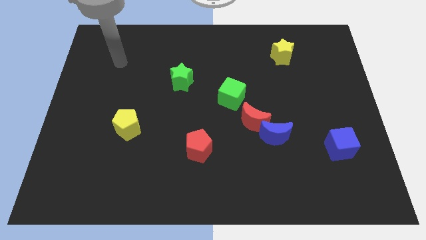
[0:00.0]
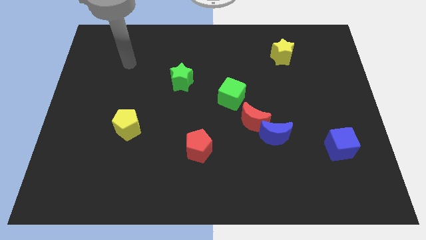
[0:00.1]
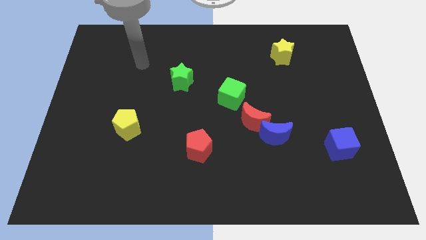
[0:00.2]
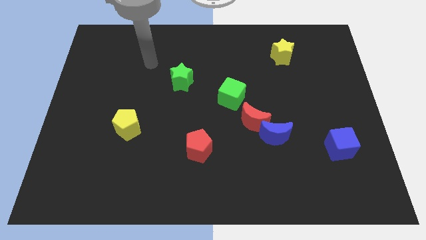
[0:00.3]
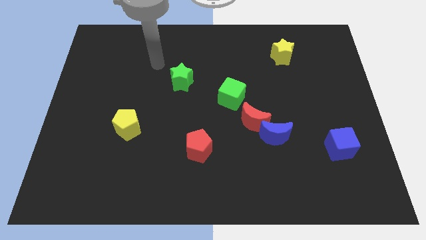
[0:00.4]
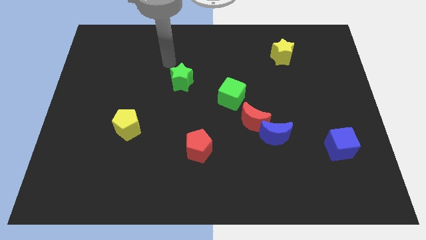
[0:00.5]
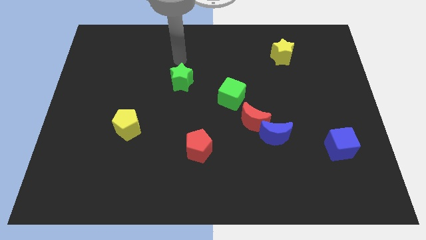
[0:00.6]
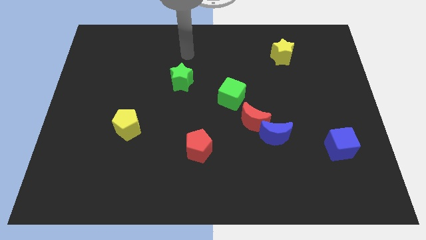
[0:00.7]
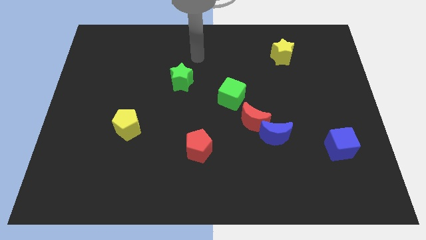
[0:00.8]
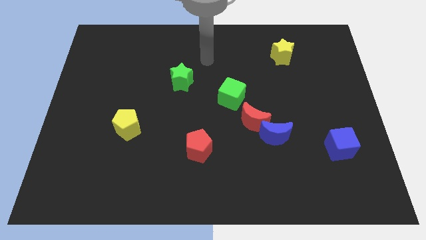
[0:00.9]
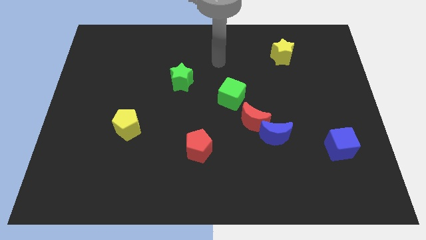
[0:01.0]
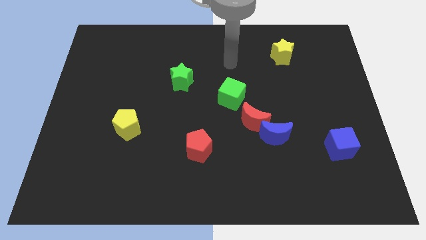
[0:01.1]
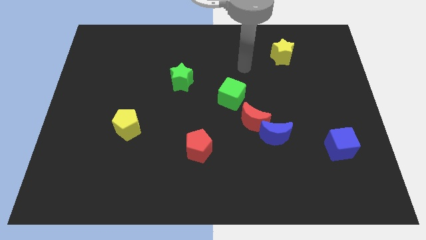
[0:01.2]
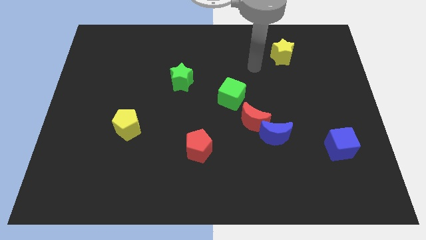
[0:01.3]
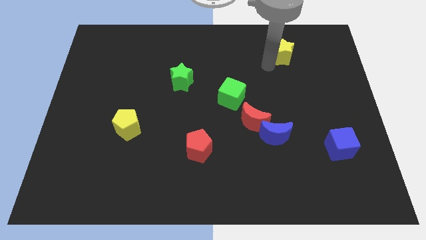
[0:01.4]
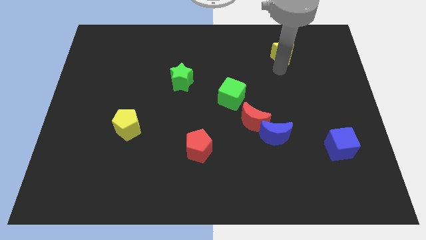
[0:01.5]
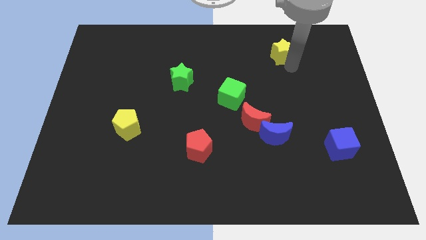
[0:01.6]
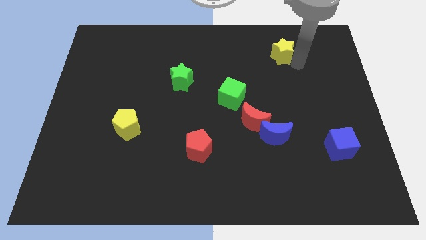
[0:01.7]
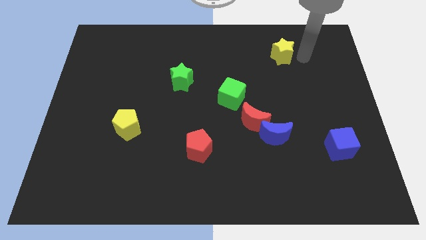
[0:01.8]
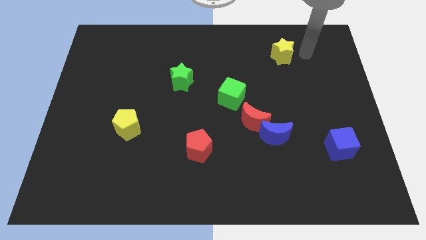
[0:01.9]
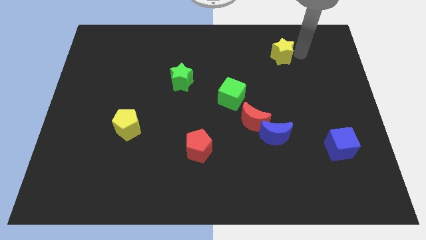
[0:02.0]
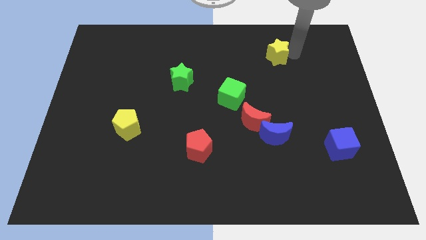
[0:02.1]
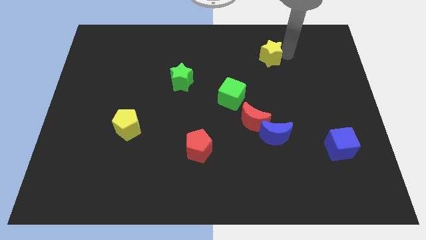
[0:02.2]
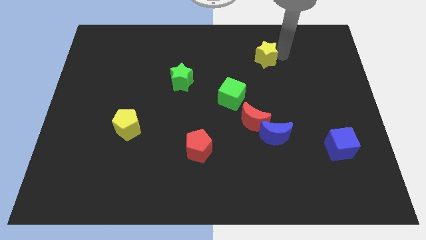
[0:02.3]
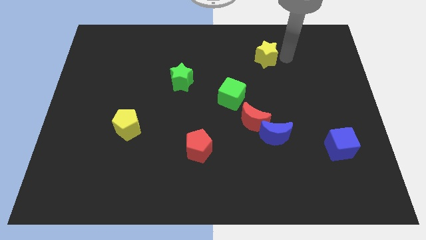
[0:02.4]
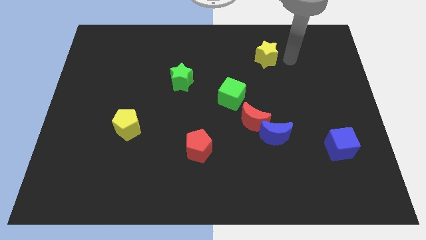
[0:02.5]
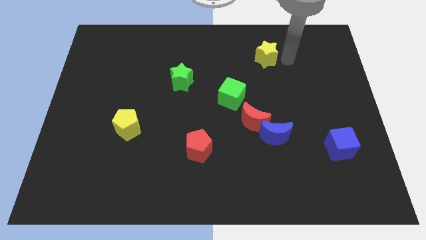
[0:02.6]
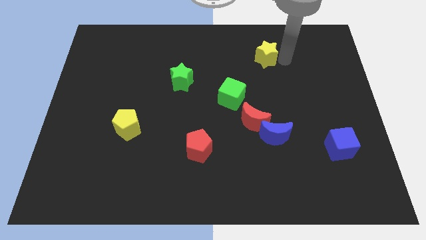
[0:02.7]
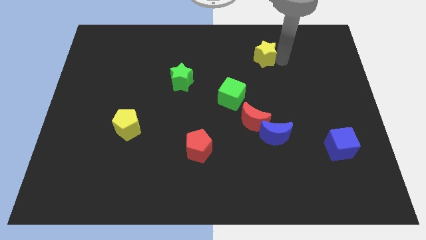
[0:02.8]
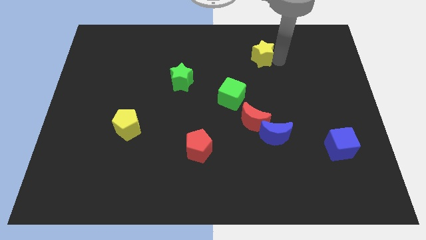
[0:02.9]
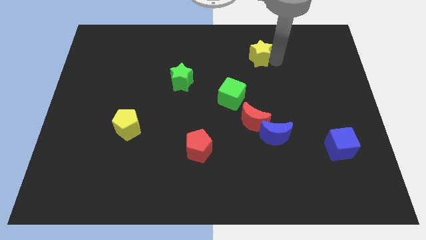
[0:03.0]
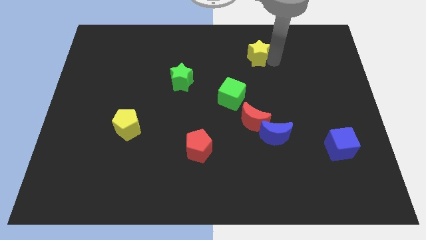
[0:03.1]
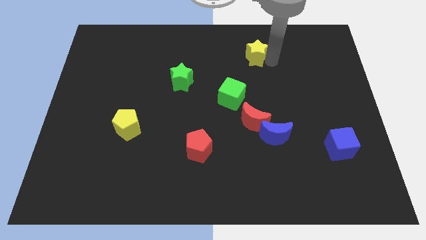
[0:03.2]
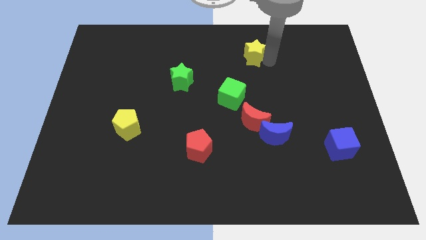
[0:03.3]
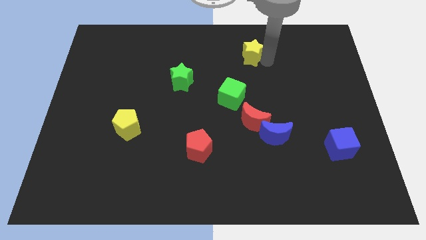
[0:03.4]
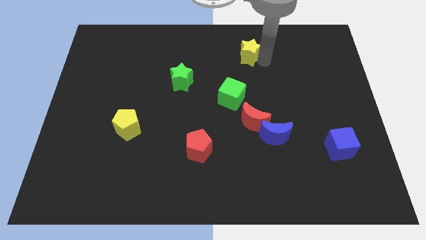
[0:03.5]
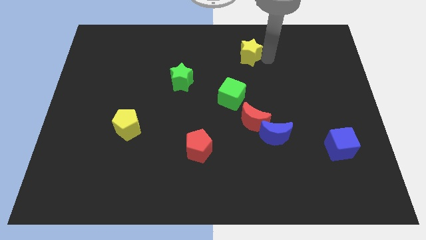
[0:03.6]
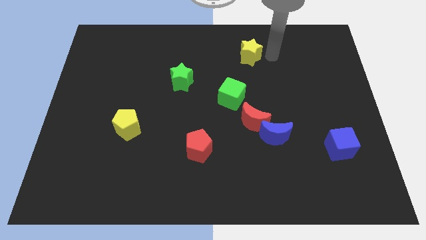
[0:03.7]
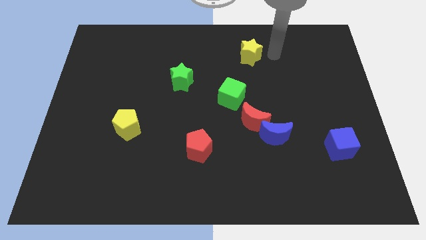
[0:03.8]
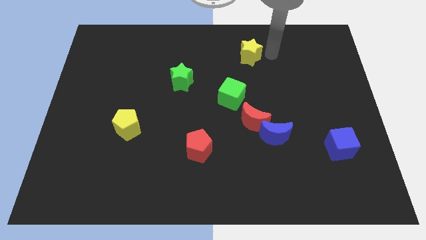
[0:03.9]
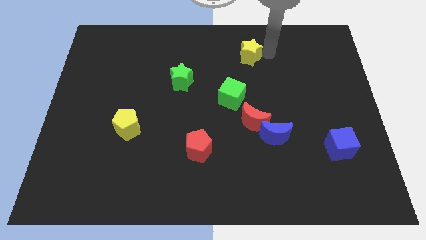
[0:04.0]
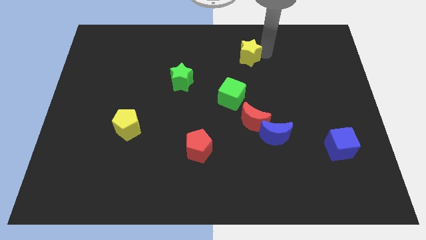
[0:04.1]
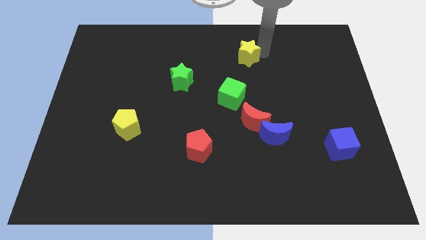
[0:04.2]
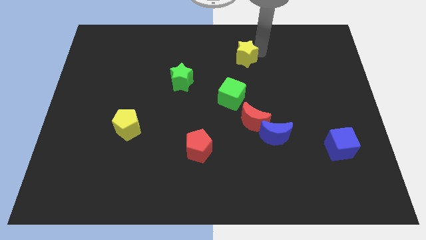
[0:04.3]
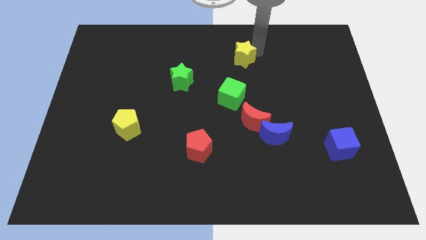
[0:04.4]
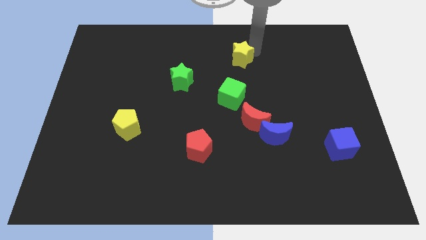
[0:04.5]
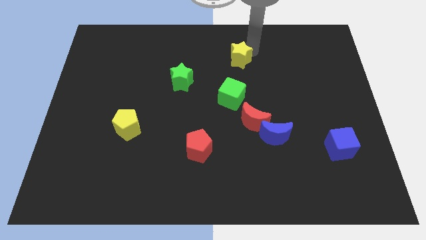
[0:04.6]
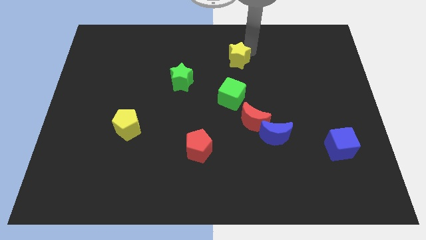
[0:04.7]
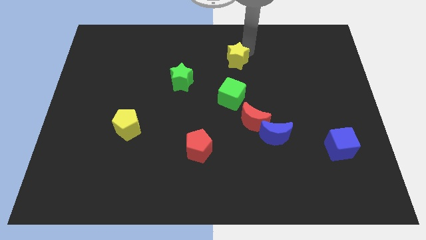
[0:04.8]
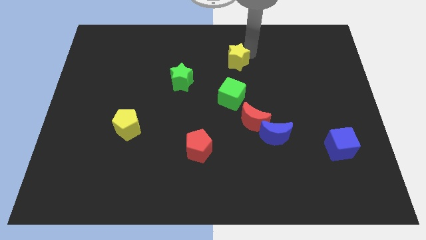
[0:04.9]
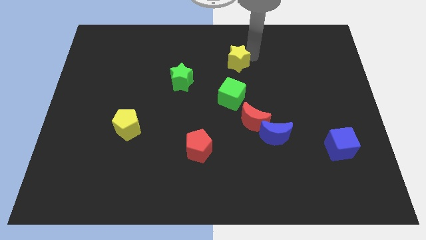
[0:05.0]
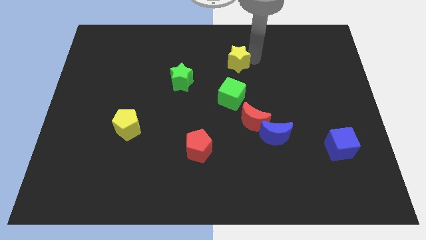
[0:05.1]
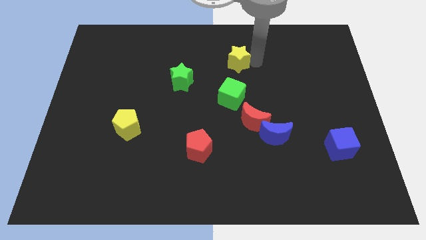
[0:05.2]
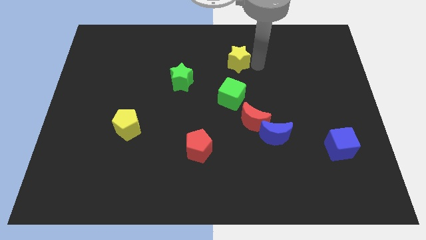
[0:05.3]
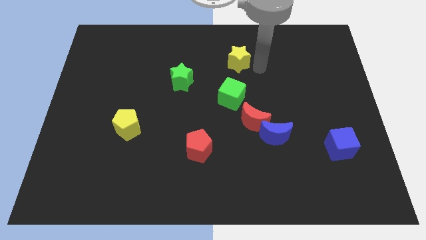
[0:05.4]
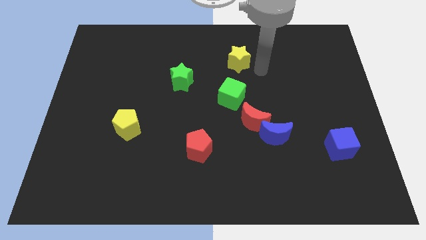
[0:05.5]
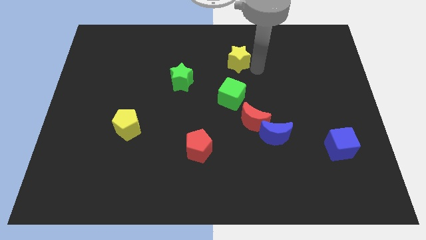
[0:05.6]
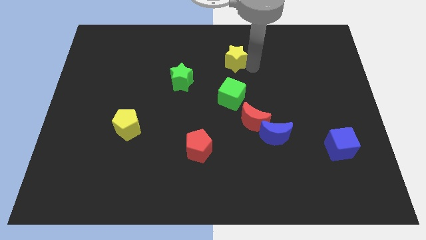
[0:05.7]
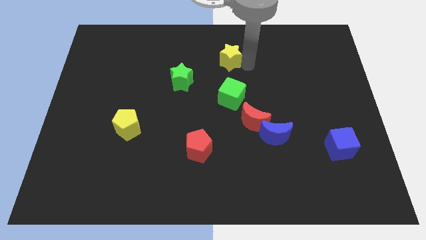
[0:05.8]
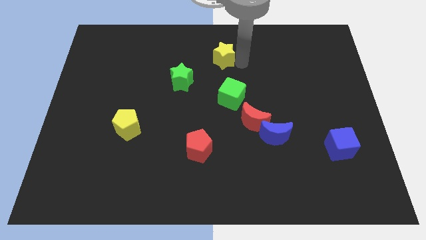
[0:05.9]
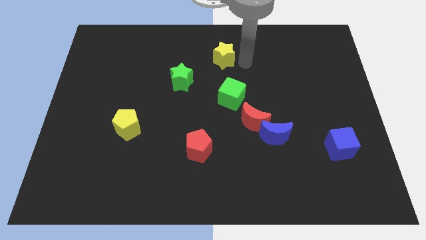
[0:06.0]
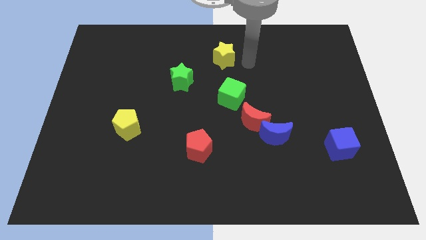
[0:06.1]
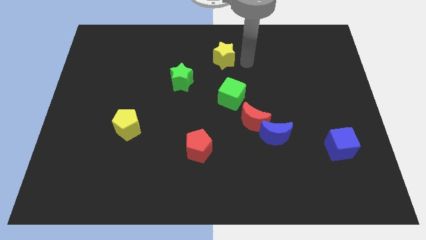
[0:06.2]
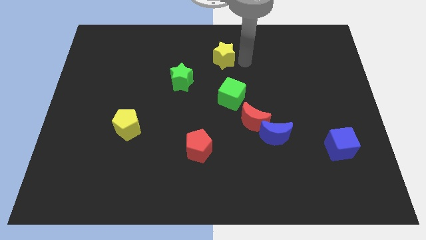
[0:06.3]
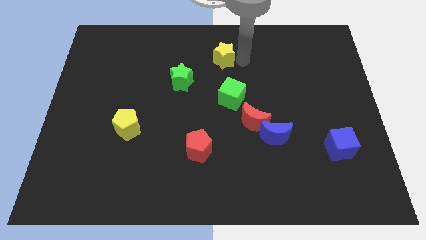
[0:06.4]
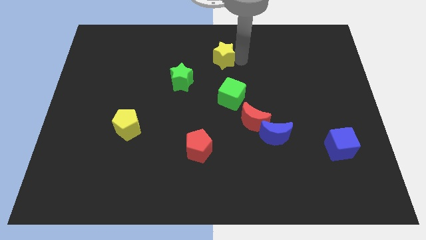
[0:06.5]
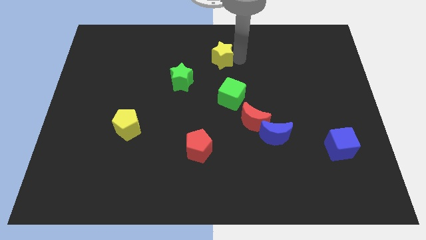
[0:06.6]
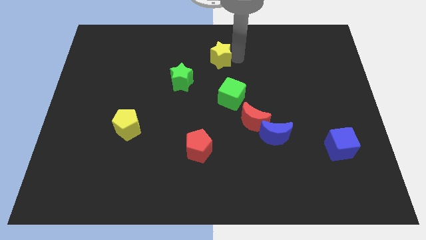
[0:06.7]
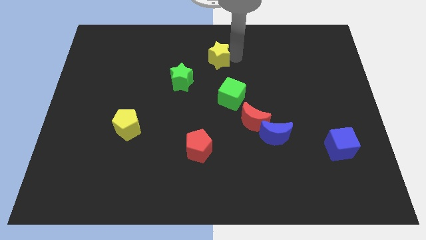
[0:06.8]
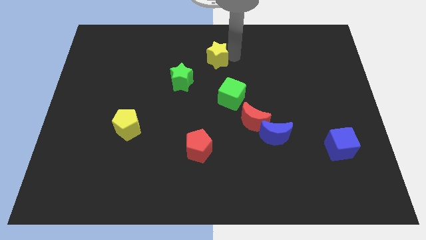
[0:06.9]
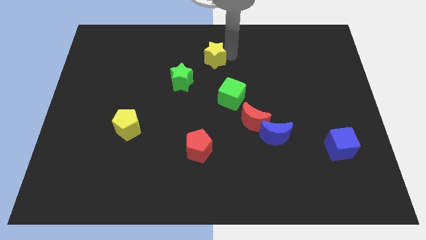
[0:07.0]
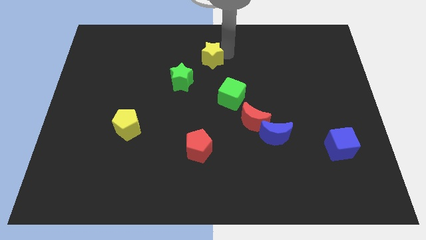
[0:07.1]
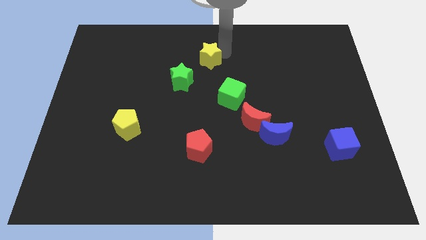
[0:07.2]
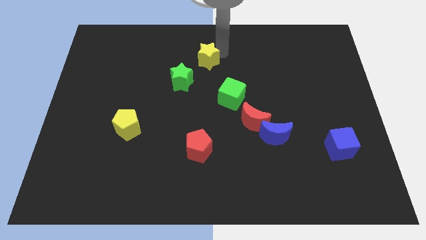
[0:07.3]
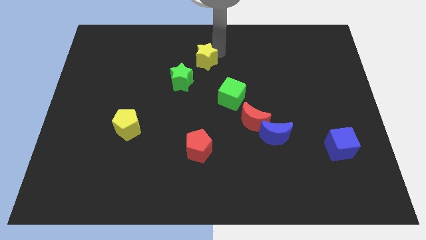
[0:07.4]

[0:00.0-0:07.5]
slide the yellow star to the left

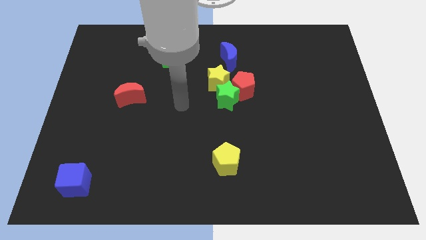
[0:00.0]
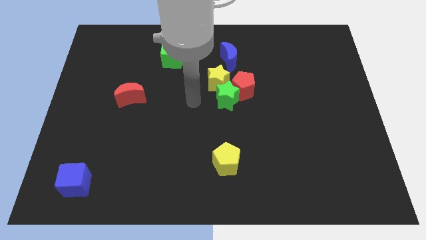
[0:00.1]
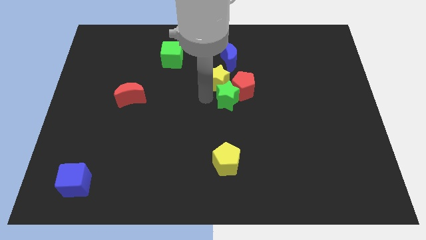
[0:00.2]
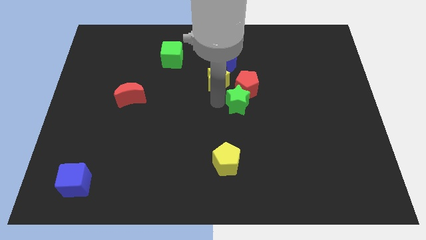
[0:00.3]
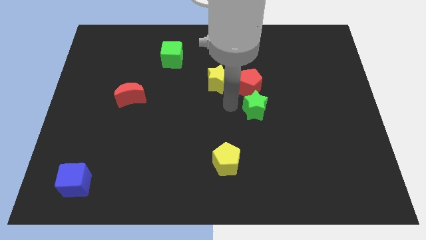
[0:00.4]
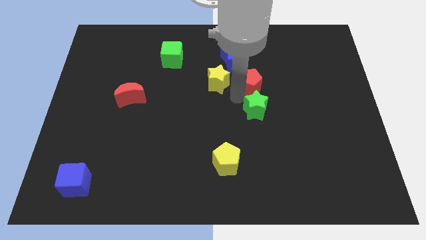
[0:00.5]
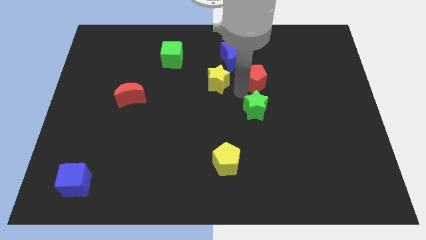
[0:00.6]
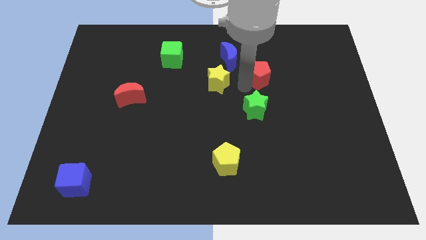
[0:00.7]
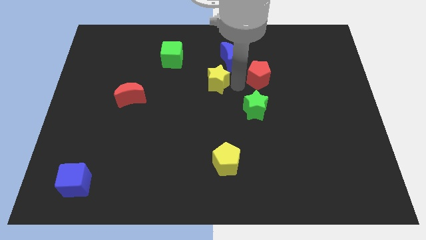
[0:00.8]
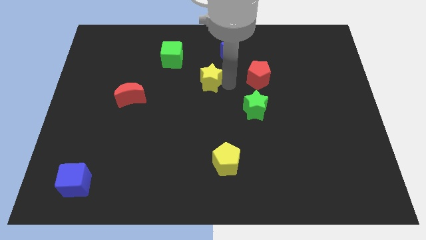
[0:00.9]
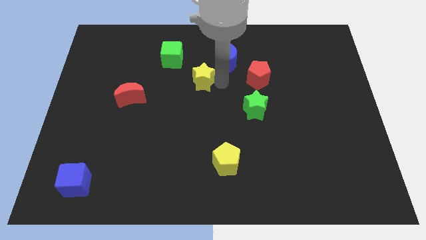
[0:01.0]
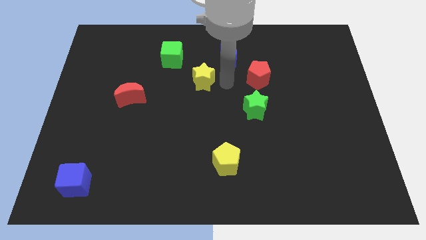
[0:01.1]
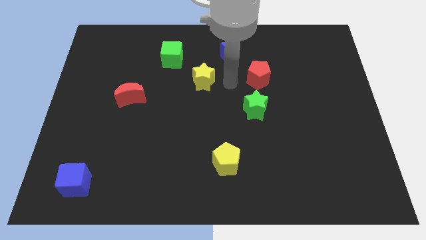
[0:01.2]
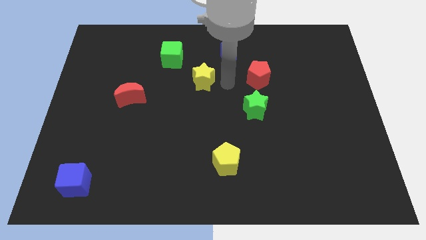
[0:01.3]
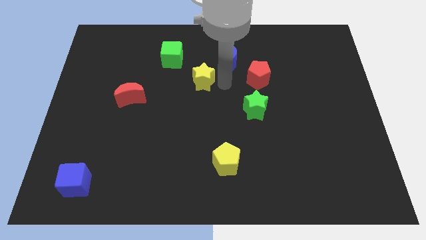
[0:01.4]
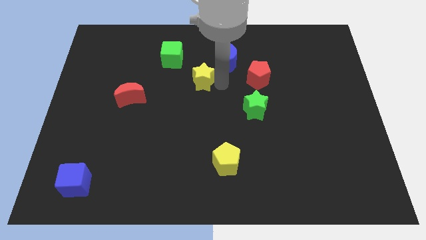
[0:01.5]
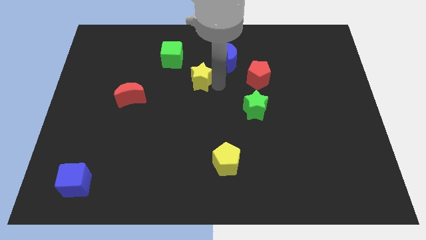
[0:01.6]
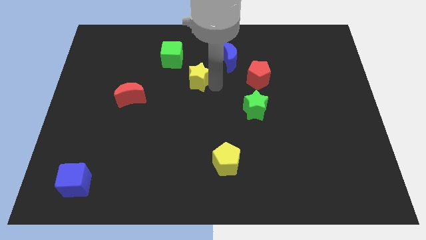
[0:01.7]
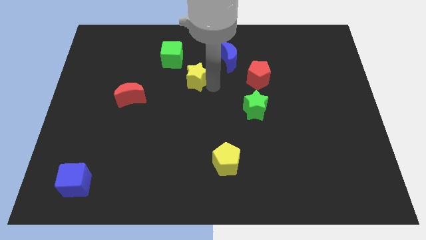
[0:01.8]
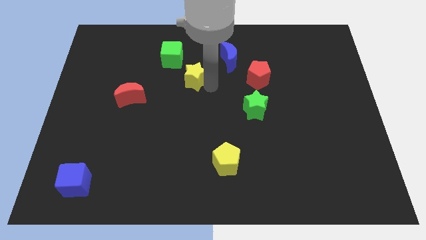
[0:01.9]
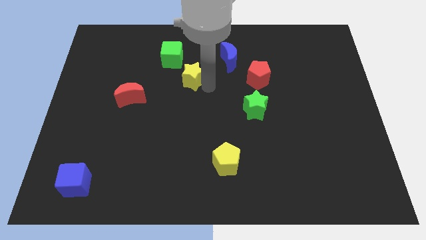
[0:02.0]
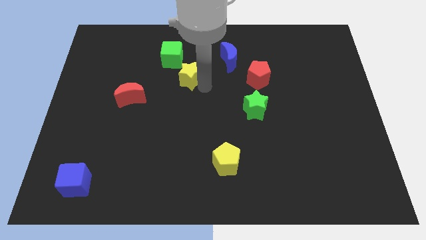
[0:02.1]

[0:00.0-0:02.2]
move the yellow star to the left slightly
